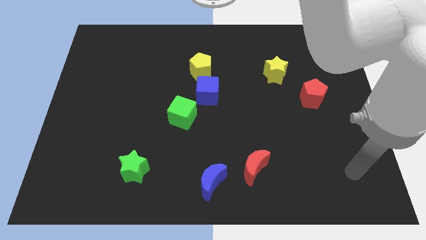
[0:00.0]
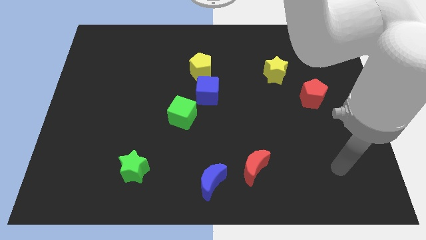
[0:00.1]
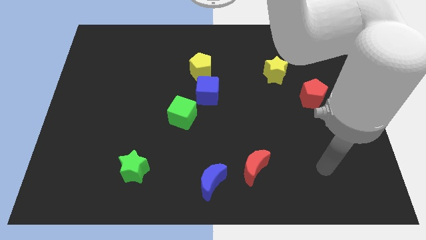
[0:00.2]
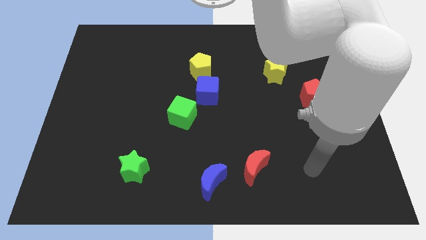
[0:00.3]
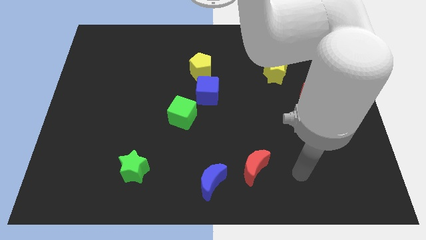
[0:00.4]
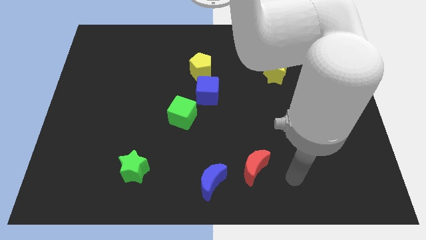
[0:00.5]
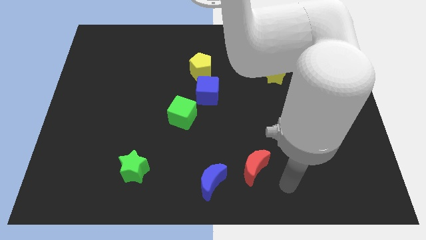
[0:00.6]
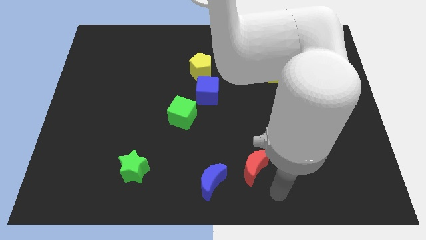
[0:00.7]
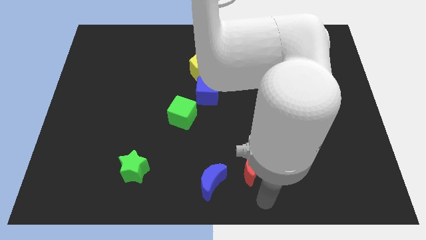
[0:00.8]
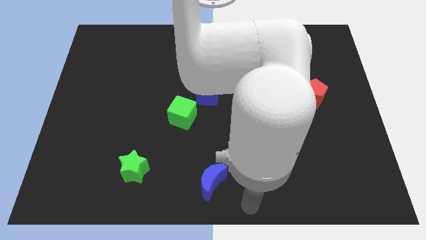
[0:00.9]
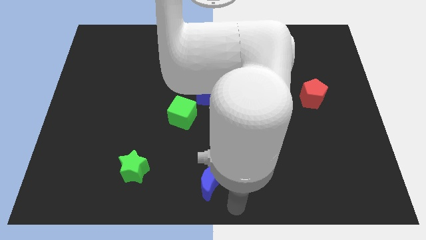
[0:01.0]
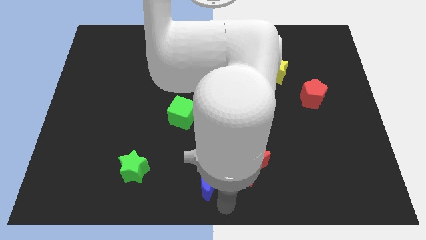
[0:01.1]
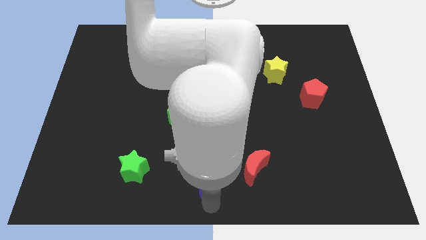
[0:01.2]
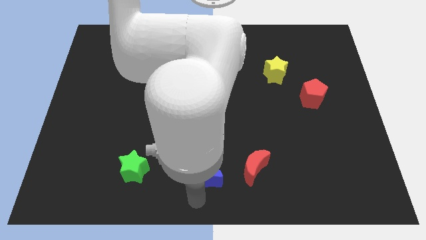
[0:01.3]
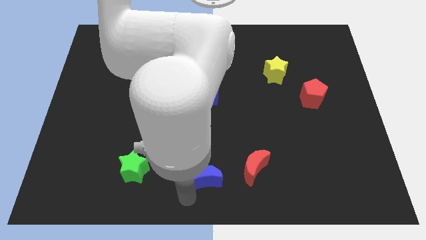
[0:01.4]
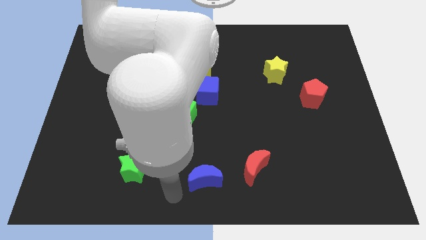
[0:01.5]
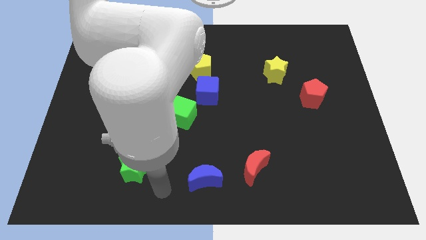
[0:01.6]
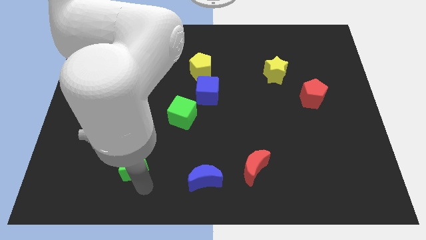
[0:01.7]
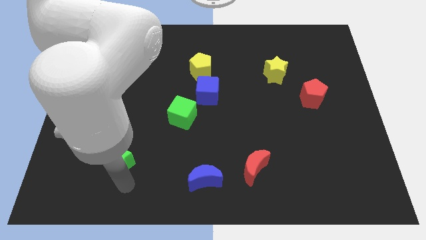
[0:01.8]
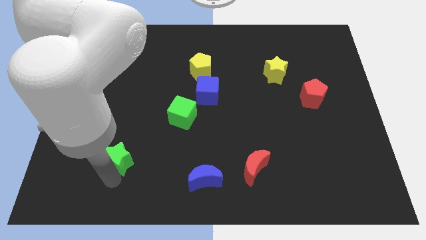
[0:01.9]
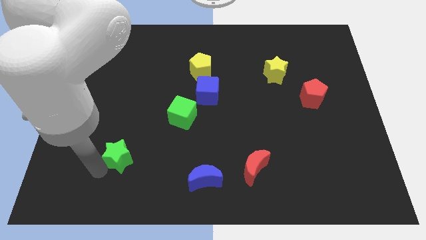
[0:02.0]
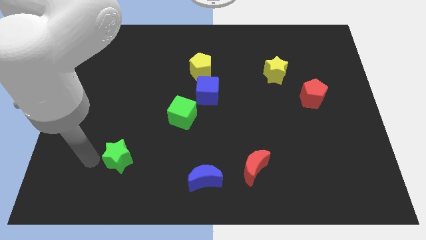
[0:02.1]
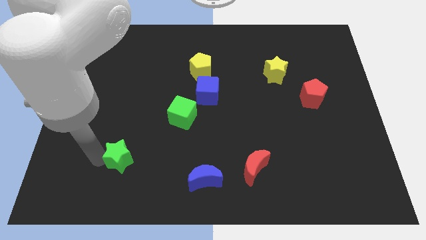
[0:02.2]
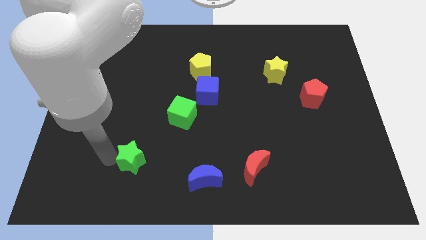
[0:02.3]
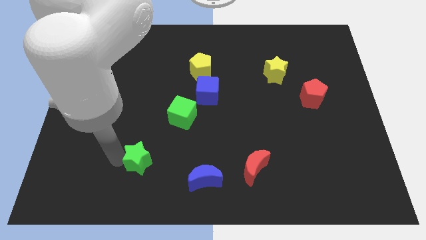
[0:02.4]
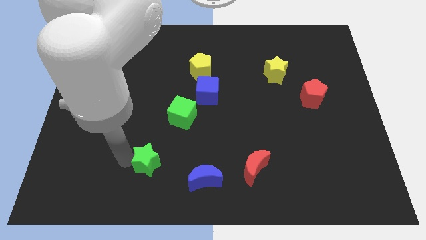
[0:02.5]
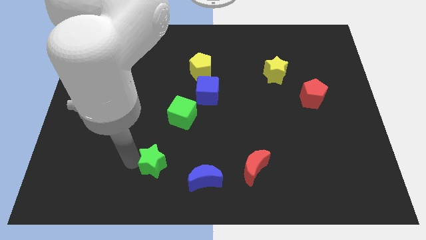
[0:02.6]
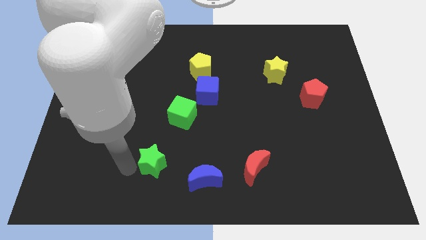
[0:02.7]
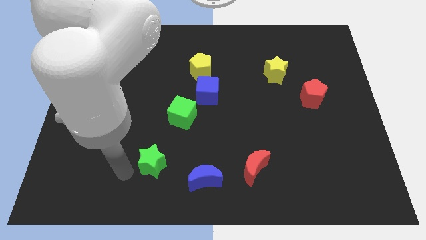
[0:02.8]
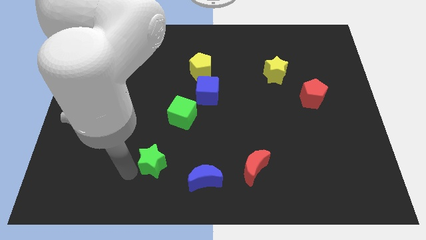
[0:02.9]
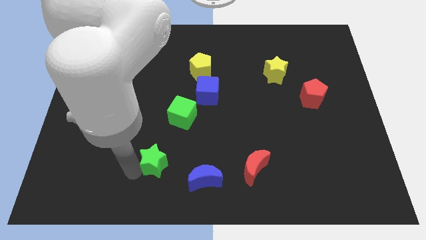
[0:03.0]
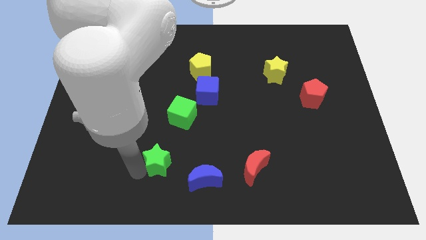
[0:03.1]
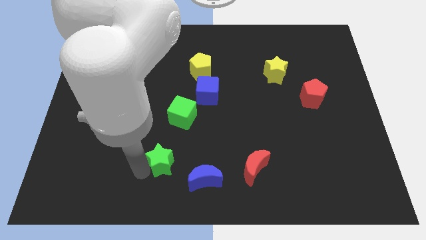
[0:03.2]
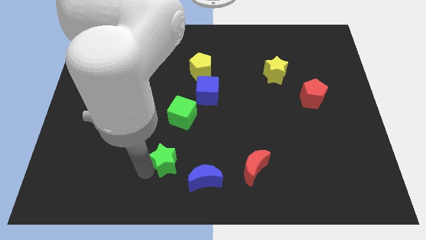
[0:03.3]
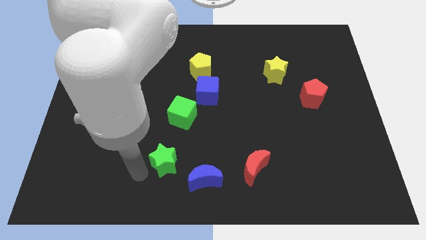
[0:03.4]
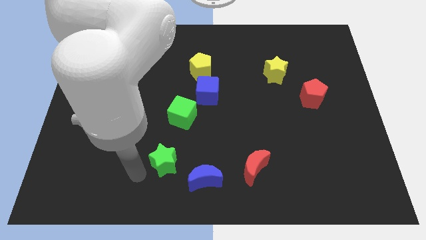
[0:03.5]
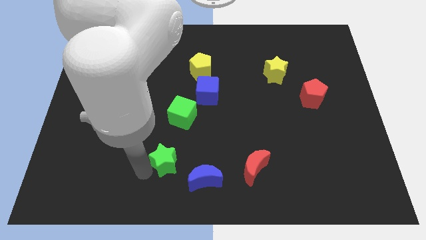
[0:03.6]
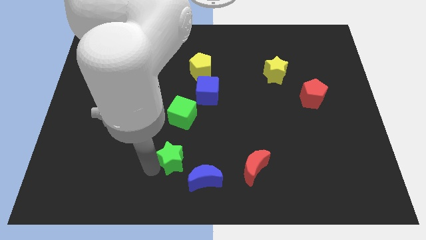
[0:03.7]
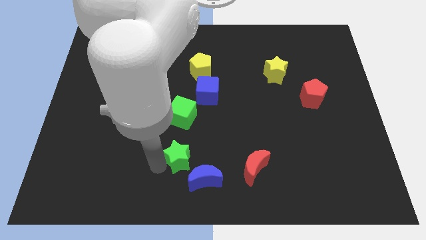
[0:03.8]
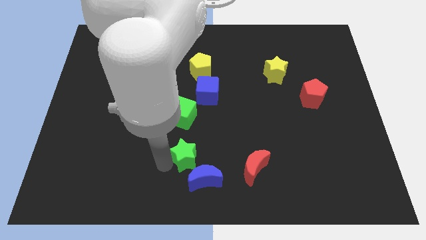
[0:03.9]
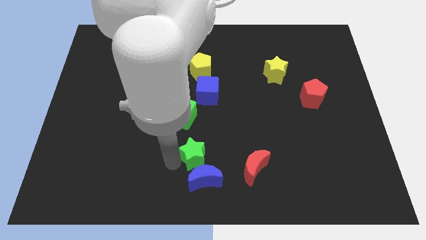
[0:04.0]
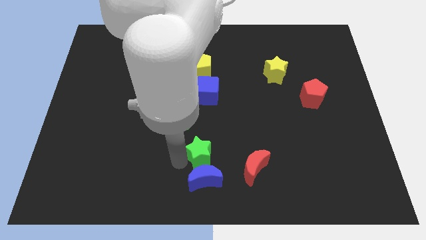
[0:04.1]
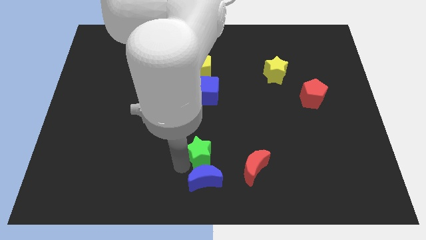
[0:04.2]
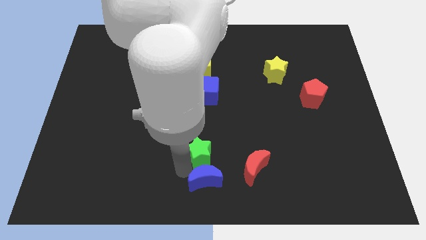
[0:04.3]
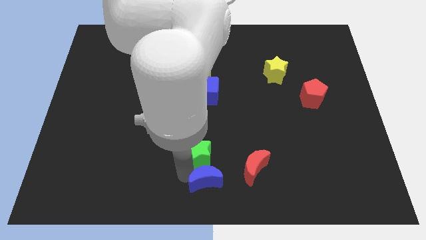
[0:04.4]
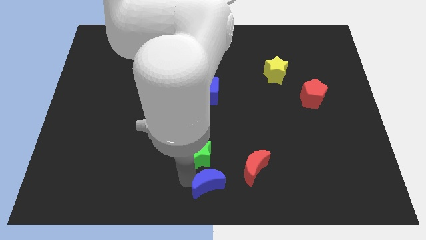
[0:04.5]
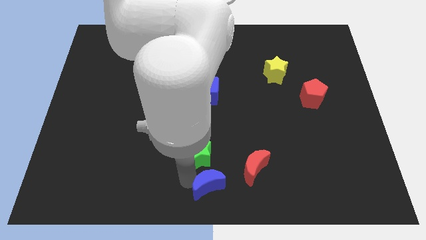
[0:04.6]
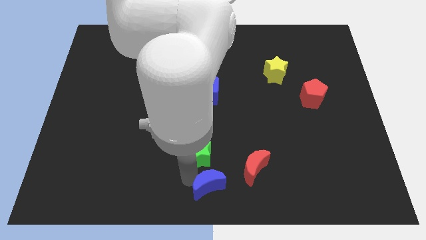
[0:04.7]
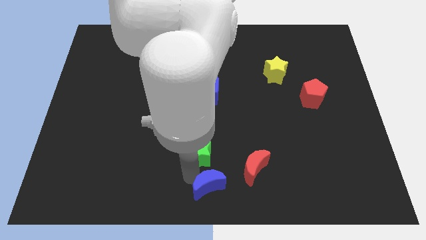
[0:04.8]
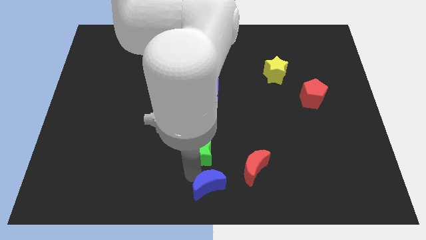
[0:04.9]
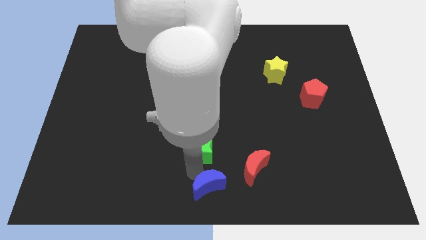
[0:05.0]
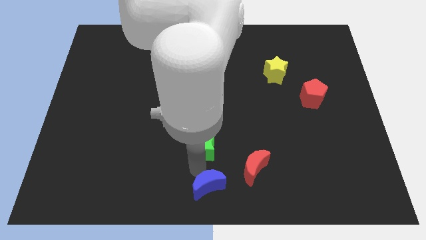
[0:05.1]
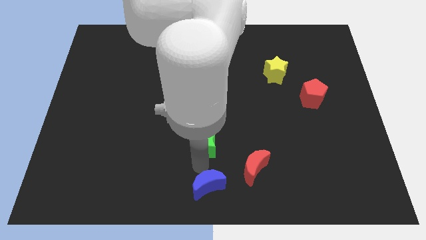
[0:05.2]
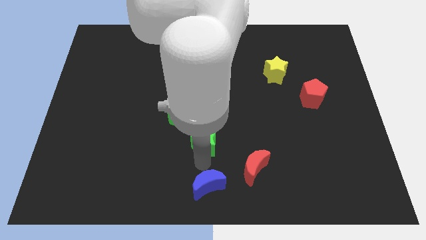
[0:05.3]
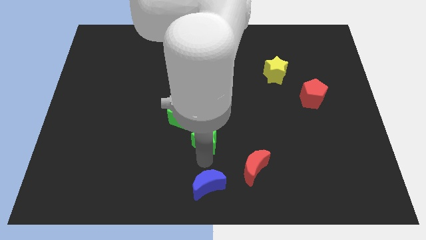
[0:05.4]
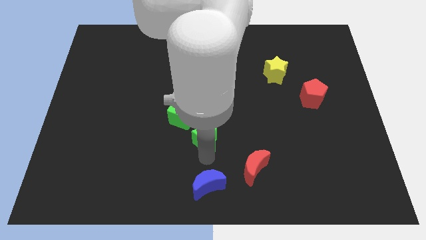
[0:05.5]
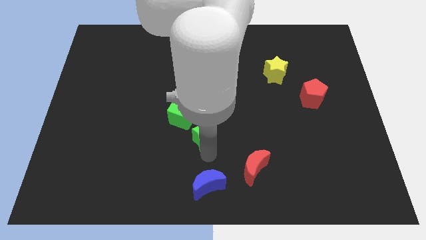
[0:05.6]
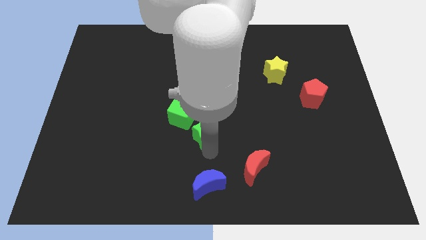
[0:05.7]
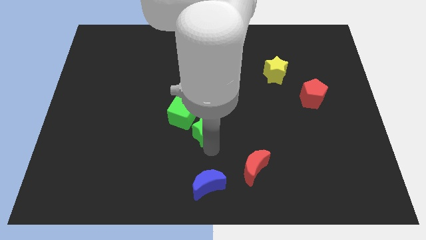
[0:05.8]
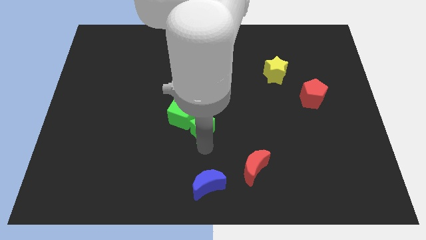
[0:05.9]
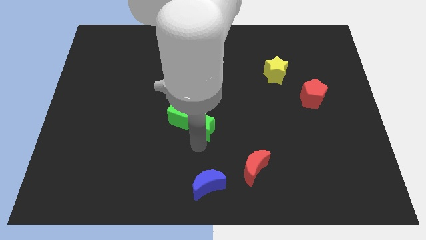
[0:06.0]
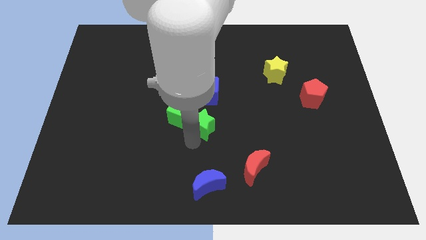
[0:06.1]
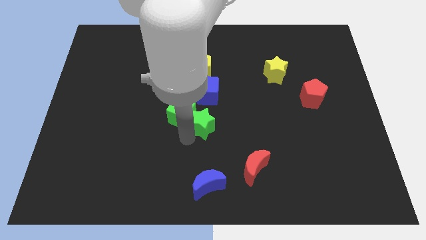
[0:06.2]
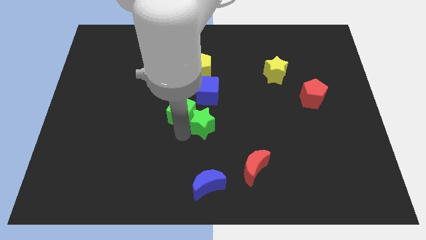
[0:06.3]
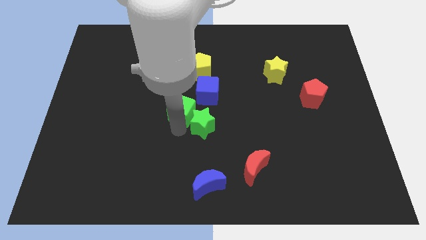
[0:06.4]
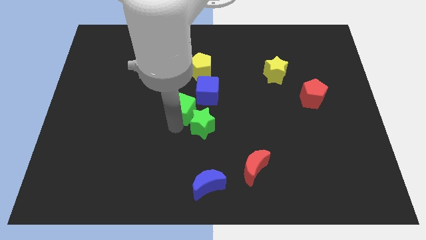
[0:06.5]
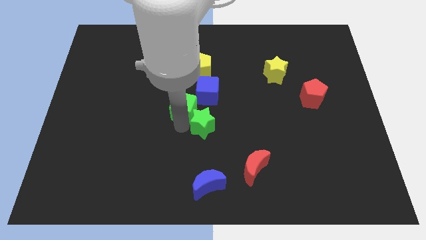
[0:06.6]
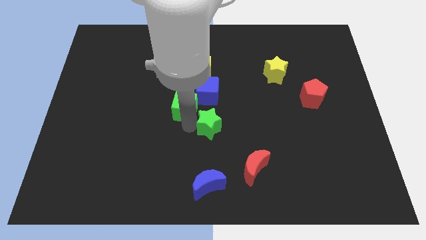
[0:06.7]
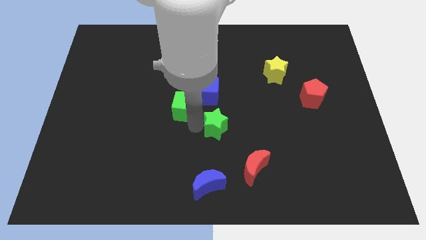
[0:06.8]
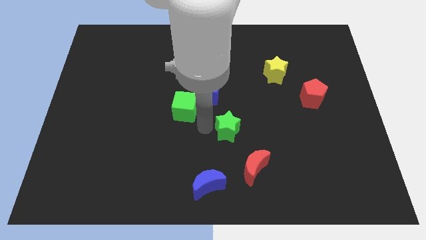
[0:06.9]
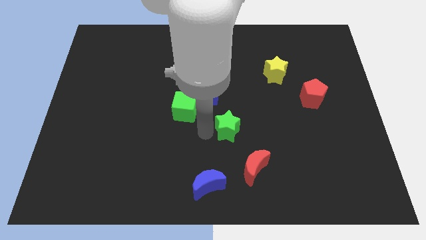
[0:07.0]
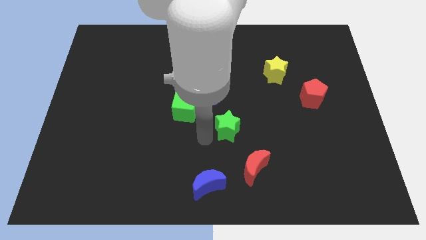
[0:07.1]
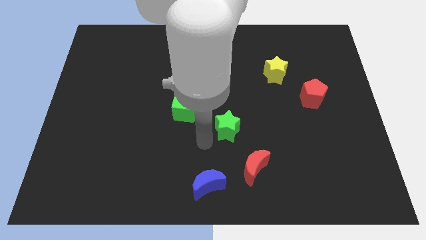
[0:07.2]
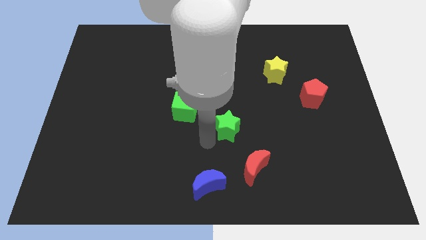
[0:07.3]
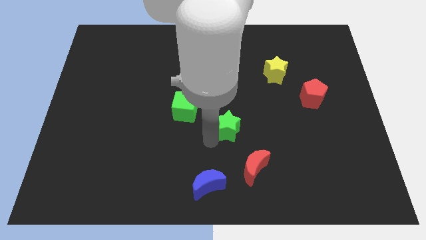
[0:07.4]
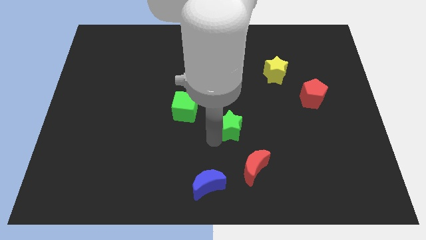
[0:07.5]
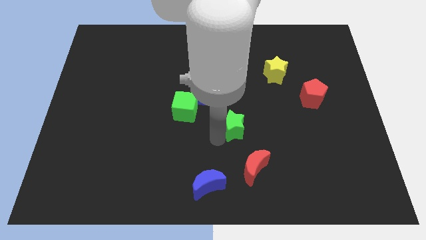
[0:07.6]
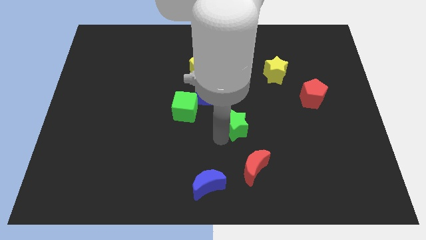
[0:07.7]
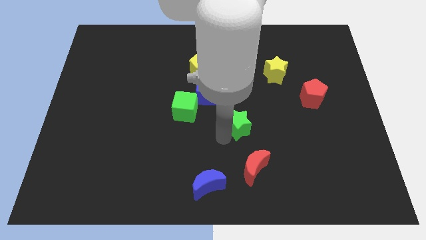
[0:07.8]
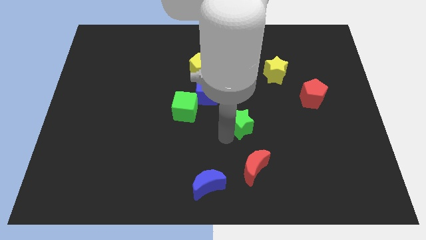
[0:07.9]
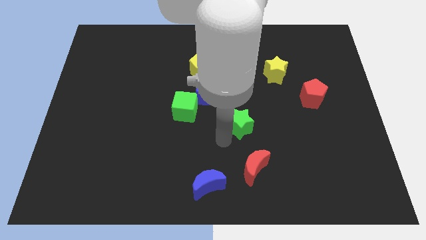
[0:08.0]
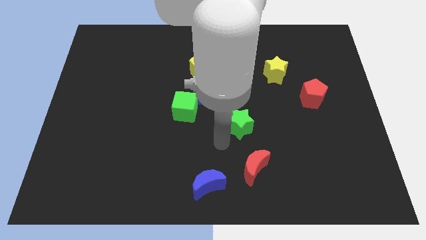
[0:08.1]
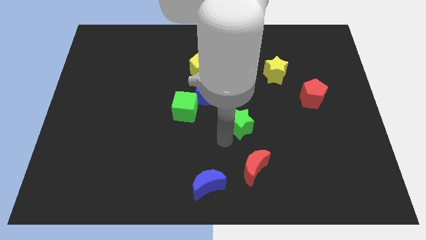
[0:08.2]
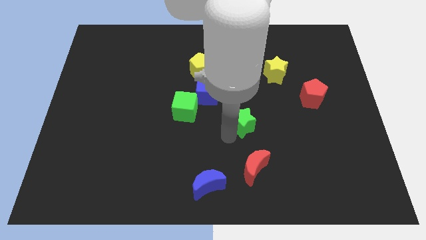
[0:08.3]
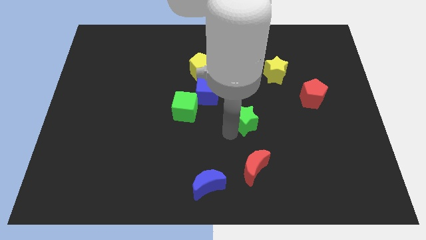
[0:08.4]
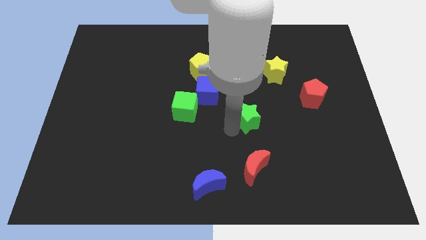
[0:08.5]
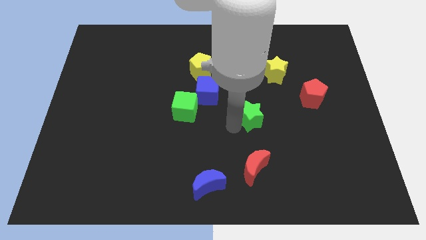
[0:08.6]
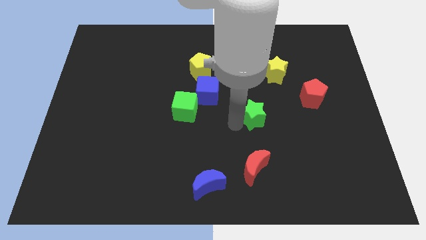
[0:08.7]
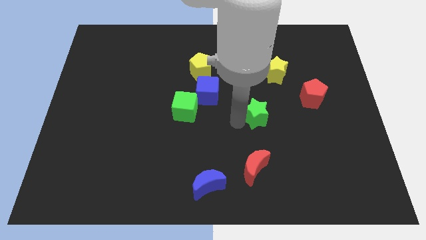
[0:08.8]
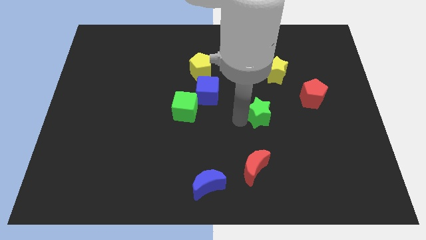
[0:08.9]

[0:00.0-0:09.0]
slide the green star below the yellow star
